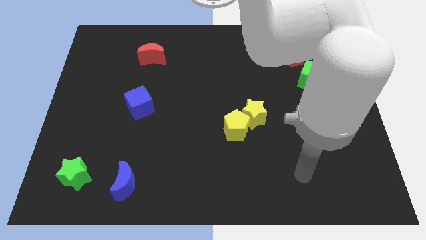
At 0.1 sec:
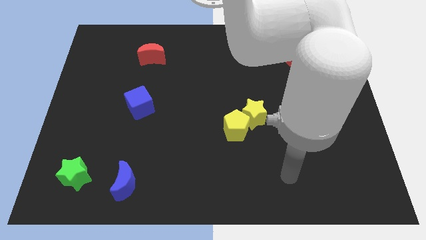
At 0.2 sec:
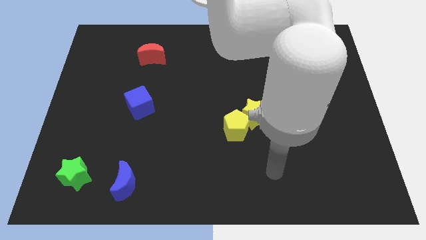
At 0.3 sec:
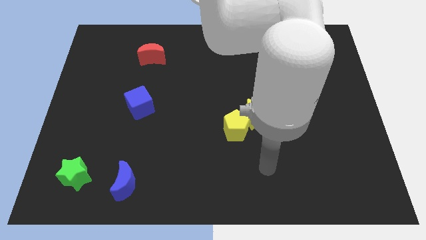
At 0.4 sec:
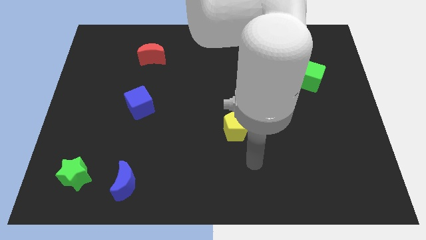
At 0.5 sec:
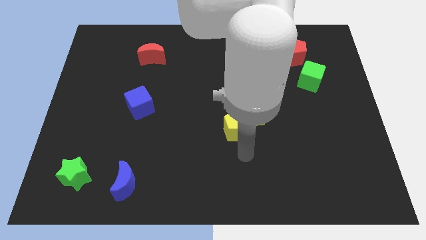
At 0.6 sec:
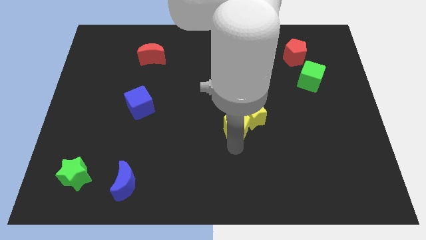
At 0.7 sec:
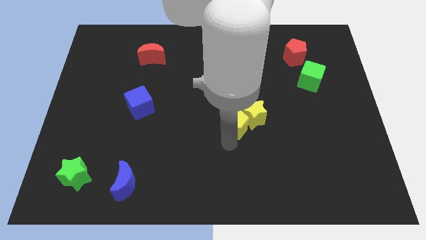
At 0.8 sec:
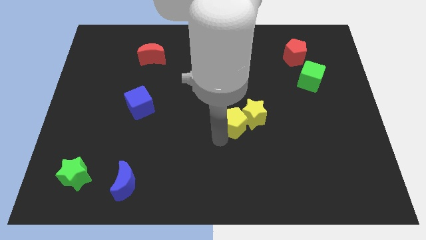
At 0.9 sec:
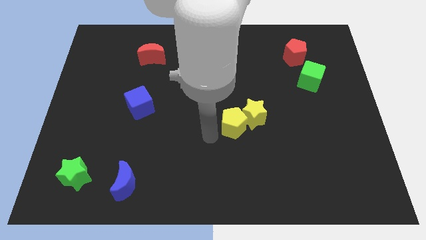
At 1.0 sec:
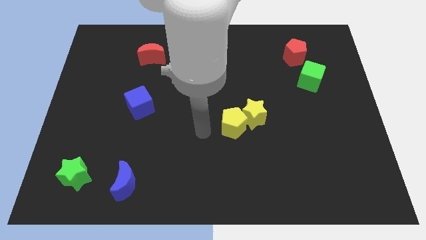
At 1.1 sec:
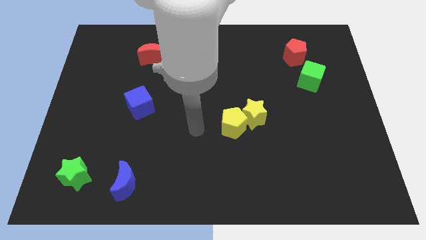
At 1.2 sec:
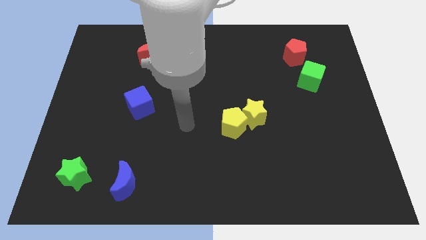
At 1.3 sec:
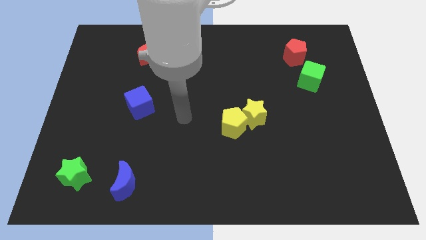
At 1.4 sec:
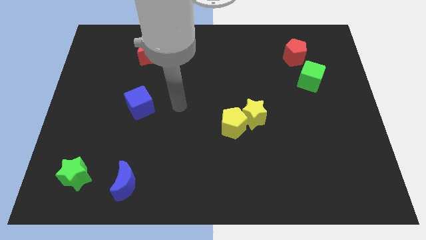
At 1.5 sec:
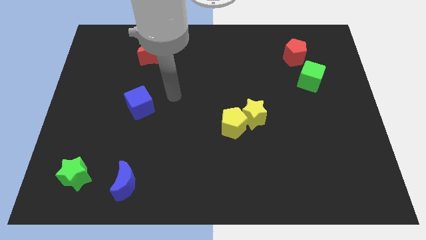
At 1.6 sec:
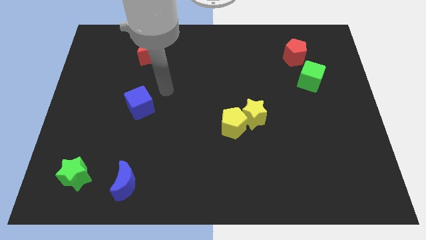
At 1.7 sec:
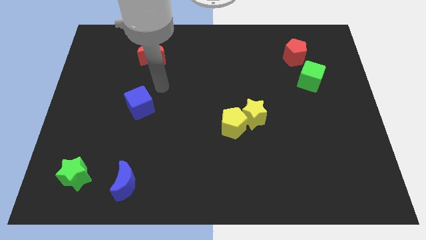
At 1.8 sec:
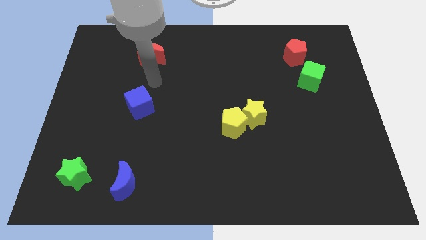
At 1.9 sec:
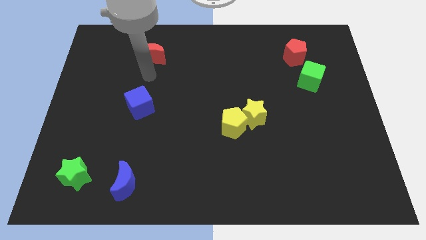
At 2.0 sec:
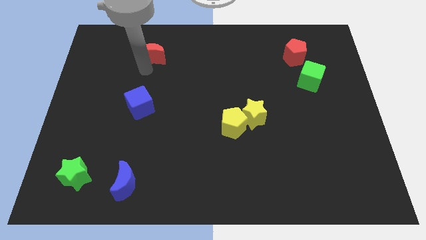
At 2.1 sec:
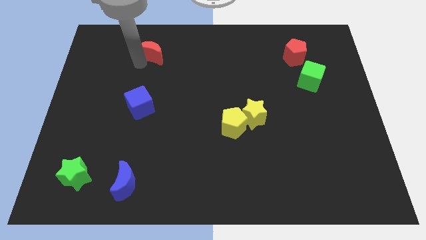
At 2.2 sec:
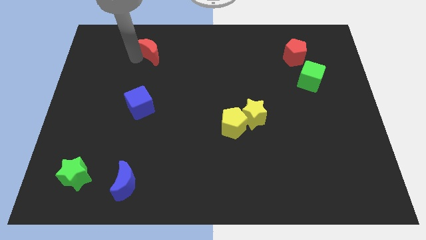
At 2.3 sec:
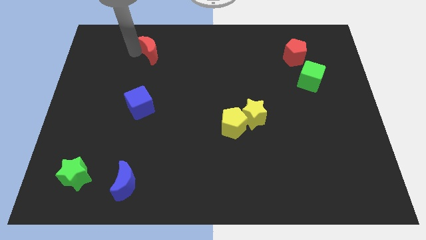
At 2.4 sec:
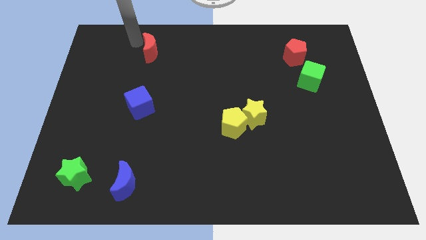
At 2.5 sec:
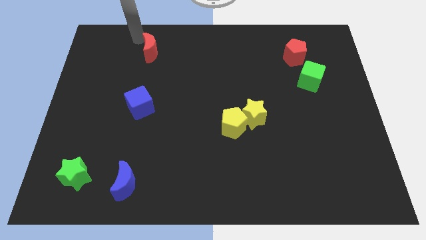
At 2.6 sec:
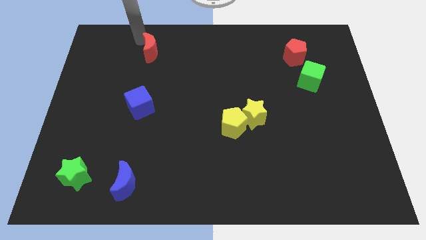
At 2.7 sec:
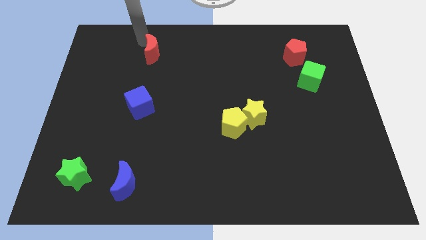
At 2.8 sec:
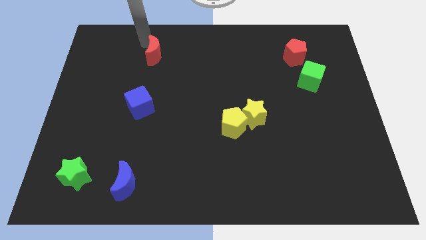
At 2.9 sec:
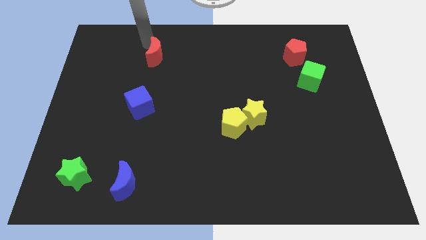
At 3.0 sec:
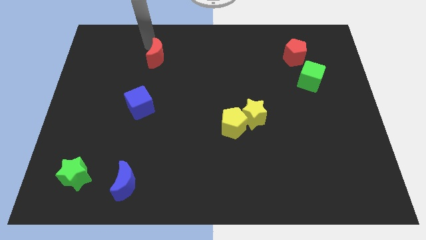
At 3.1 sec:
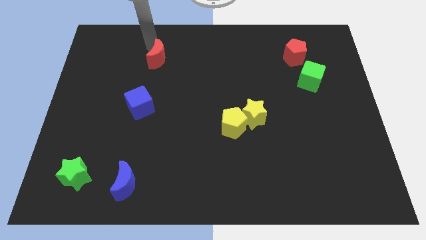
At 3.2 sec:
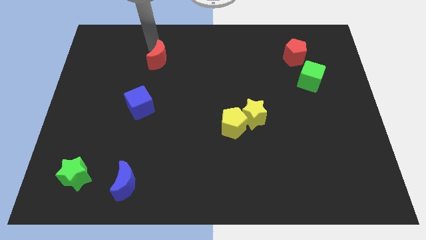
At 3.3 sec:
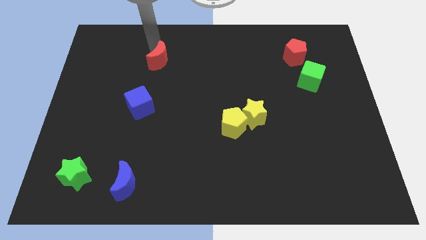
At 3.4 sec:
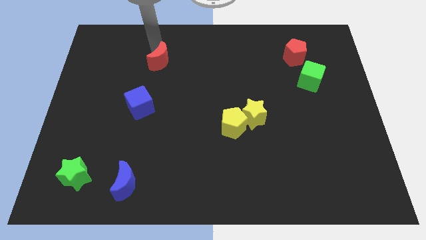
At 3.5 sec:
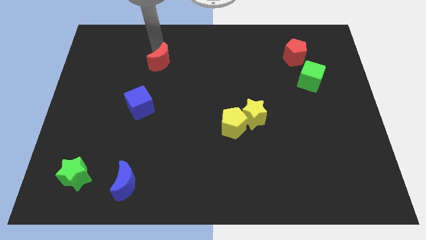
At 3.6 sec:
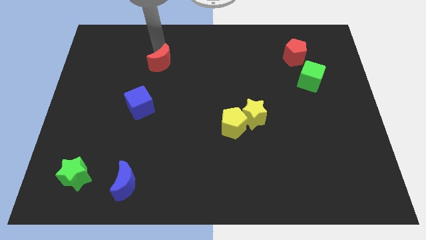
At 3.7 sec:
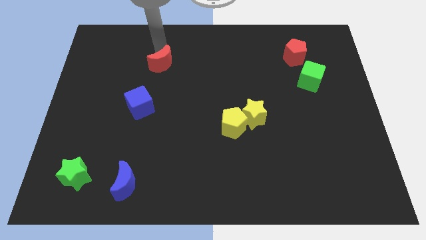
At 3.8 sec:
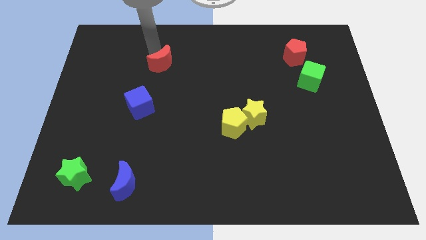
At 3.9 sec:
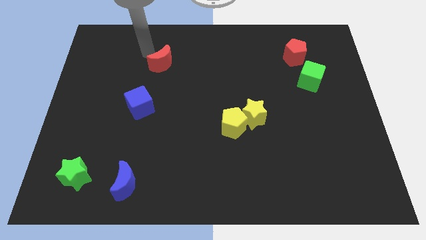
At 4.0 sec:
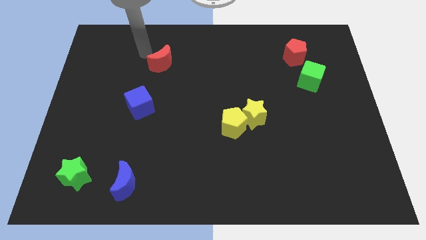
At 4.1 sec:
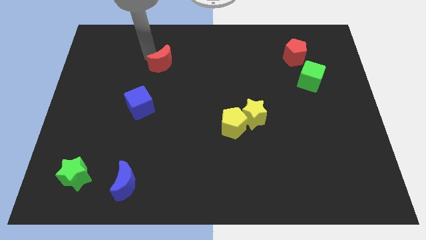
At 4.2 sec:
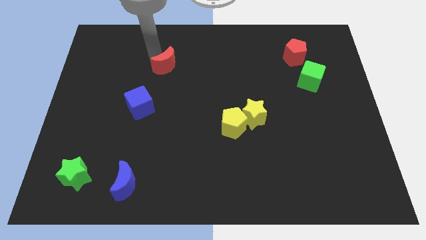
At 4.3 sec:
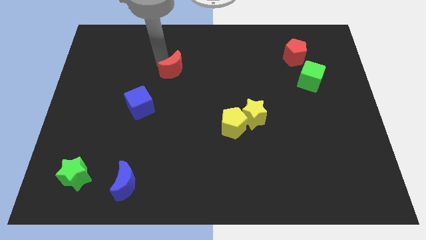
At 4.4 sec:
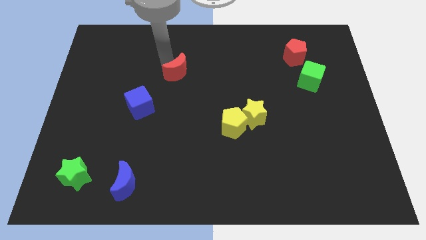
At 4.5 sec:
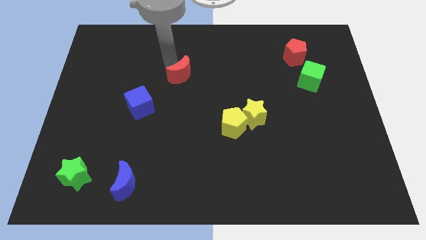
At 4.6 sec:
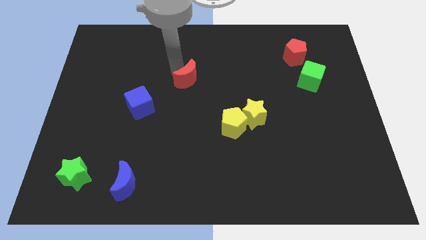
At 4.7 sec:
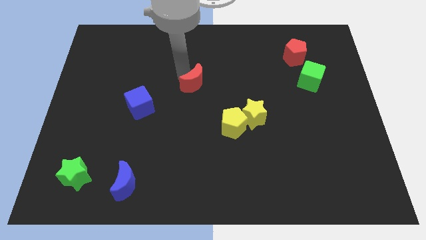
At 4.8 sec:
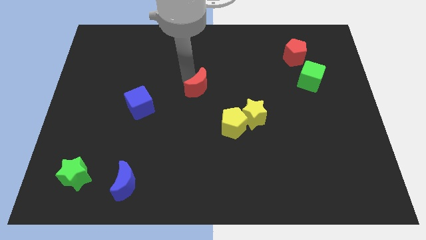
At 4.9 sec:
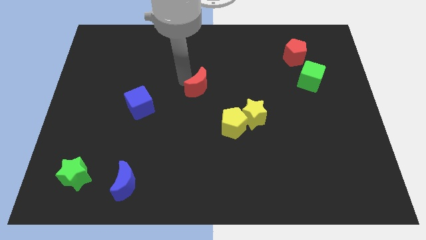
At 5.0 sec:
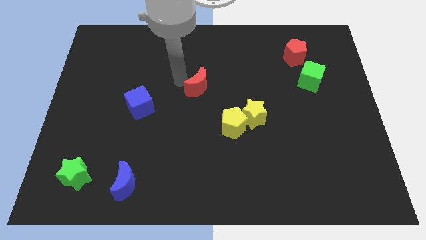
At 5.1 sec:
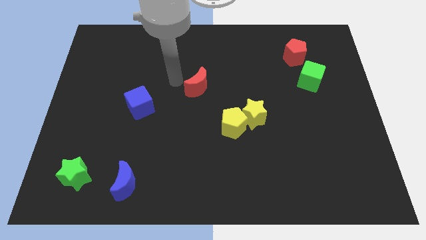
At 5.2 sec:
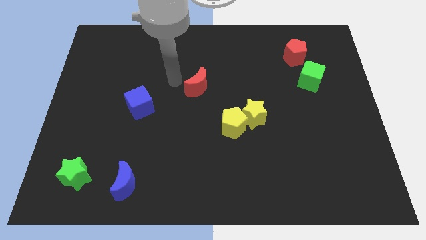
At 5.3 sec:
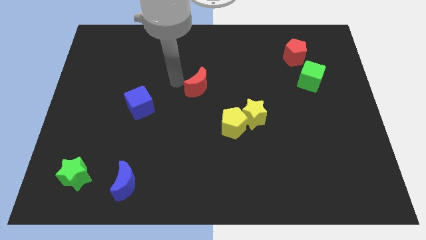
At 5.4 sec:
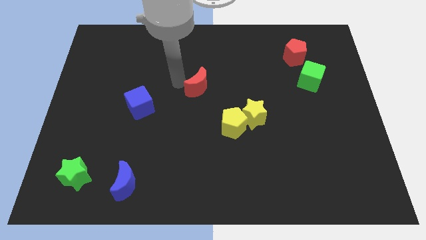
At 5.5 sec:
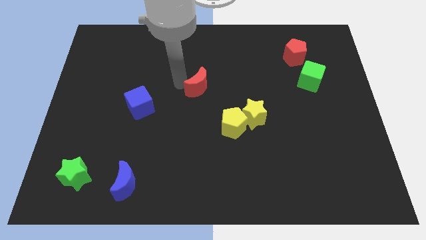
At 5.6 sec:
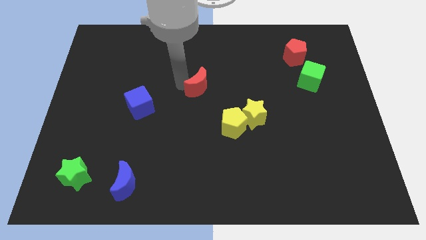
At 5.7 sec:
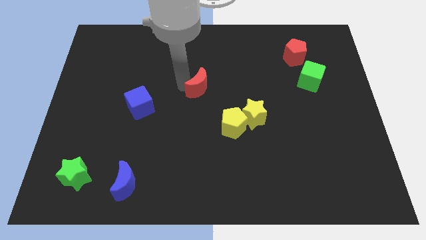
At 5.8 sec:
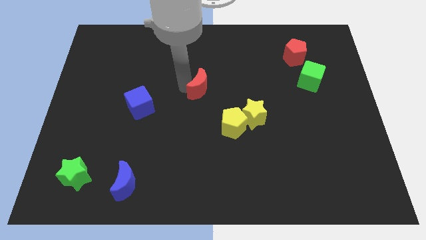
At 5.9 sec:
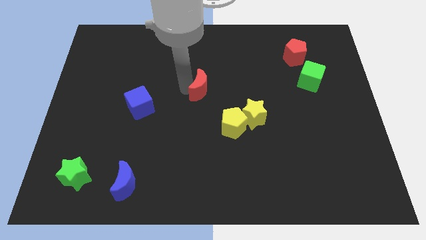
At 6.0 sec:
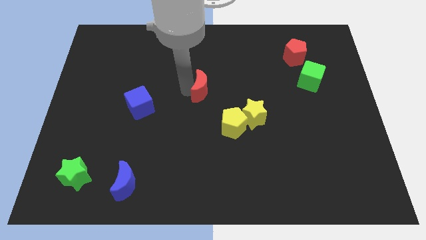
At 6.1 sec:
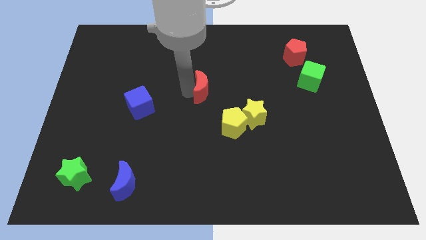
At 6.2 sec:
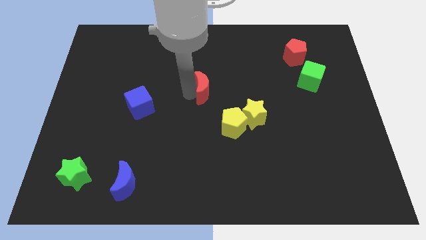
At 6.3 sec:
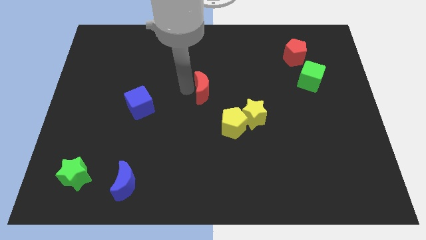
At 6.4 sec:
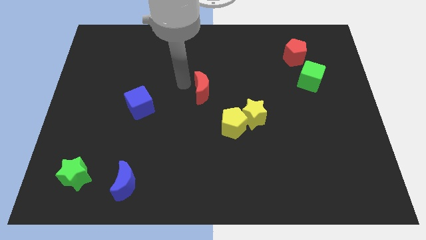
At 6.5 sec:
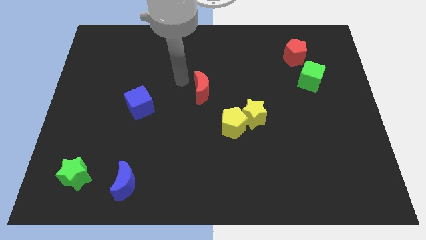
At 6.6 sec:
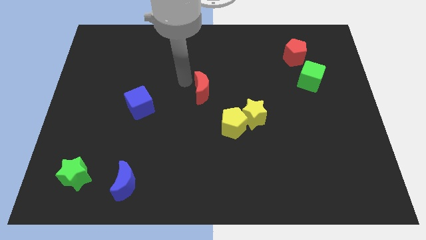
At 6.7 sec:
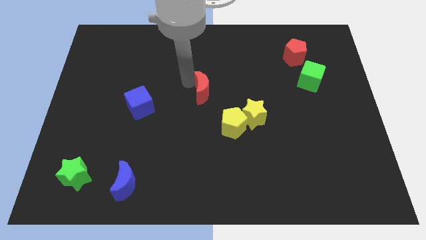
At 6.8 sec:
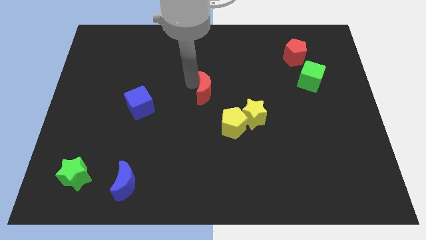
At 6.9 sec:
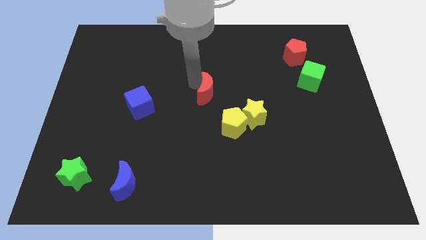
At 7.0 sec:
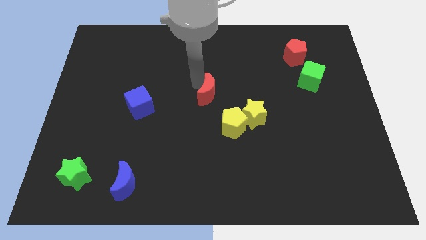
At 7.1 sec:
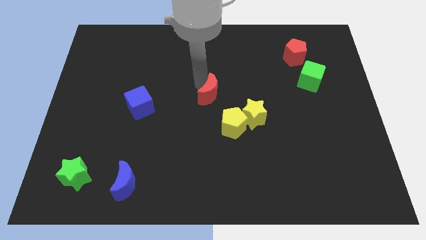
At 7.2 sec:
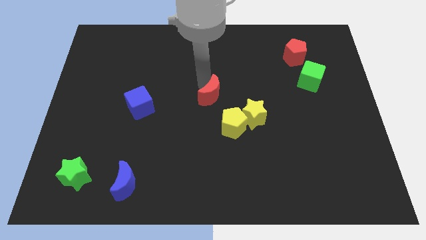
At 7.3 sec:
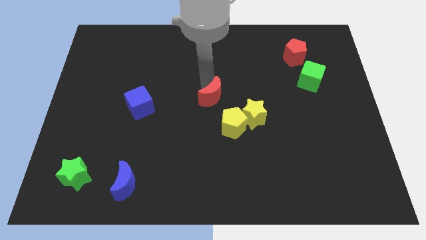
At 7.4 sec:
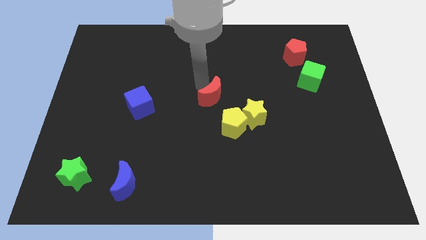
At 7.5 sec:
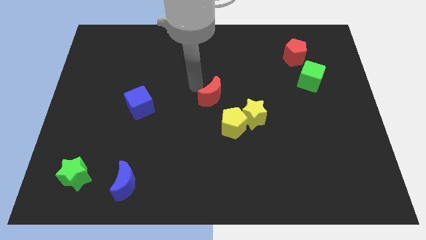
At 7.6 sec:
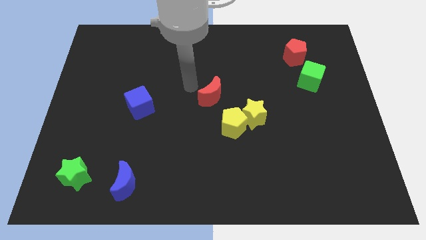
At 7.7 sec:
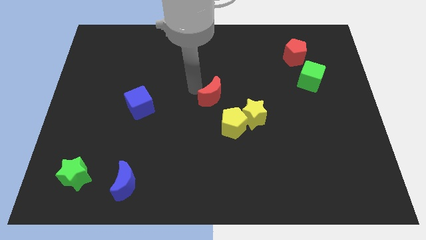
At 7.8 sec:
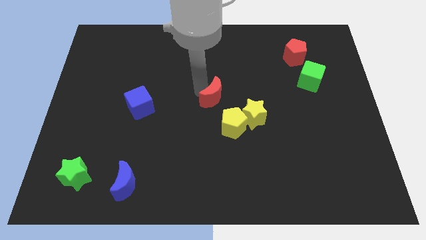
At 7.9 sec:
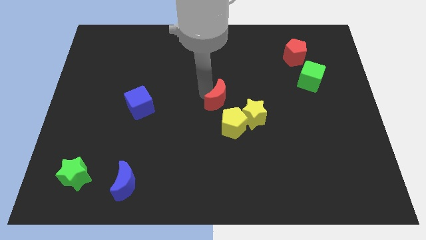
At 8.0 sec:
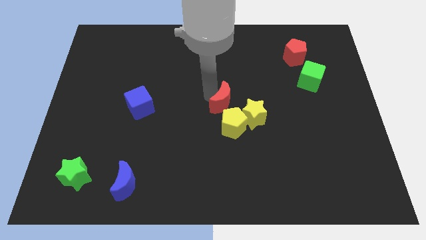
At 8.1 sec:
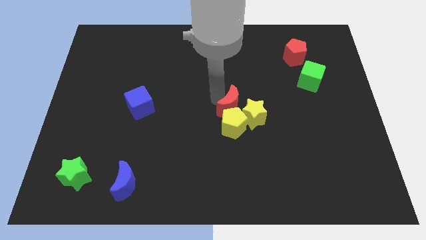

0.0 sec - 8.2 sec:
move the red moon towards the yellow star
